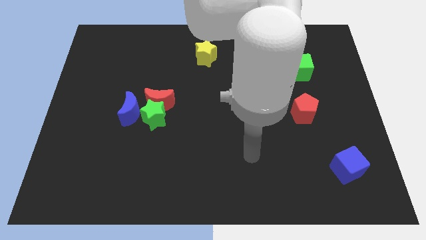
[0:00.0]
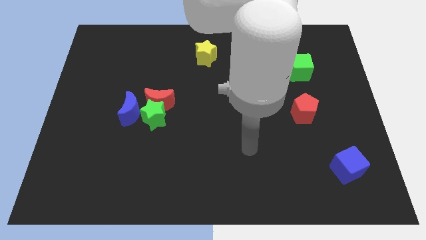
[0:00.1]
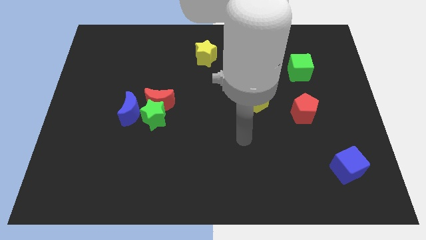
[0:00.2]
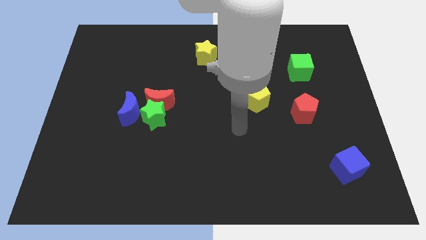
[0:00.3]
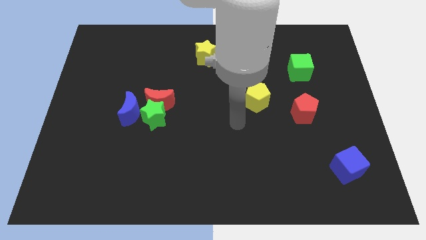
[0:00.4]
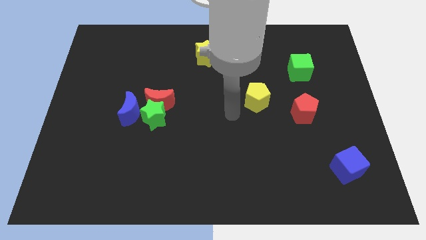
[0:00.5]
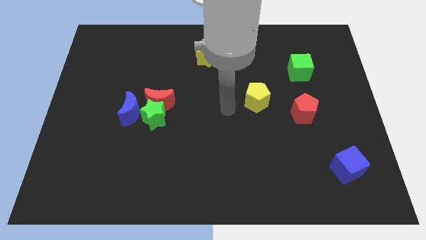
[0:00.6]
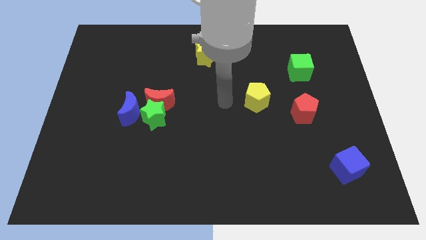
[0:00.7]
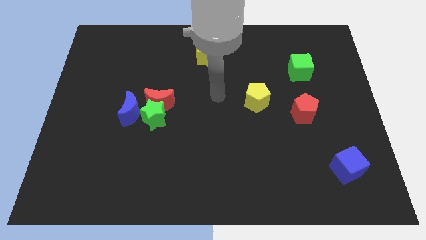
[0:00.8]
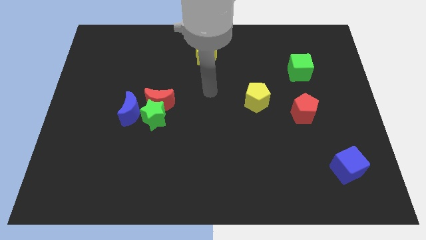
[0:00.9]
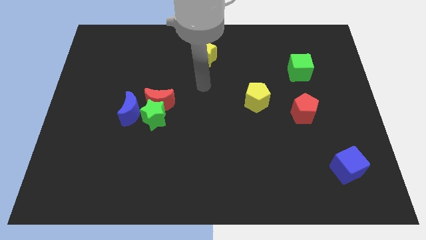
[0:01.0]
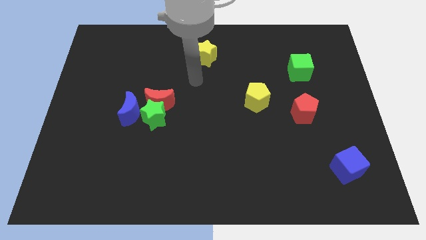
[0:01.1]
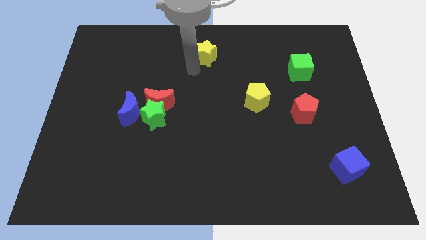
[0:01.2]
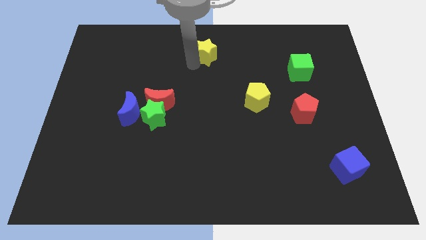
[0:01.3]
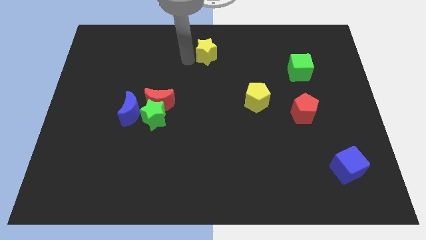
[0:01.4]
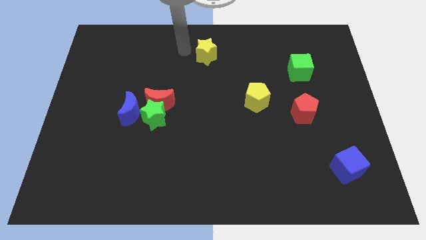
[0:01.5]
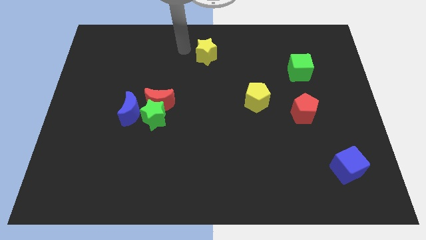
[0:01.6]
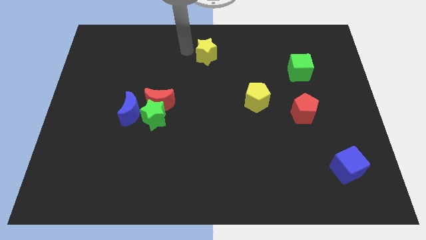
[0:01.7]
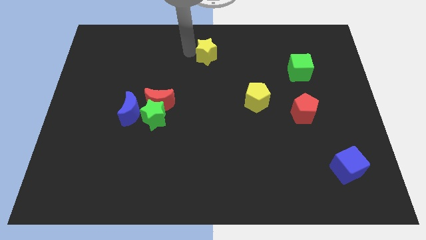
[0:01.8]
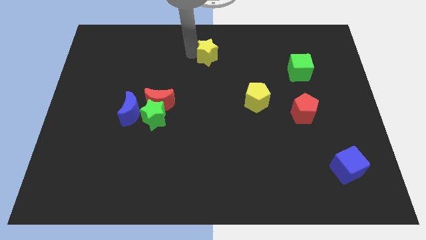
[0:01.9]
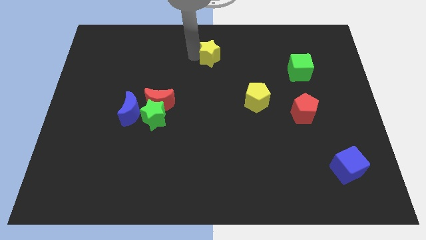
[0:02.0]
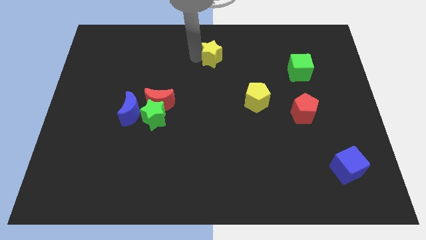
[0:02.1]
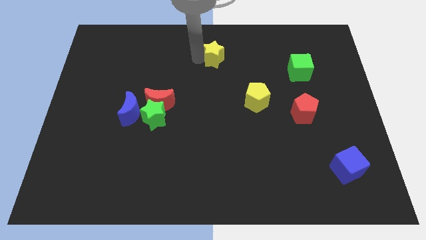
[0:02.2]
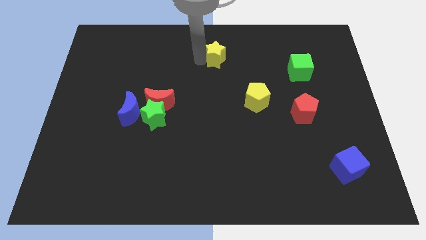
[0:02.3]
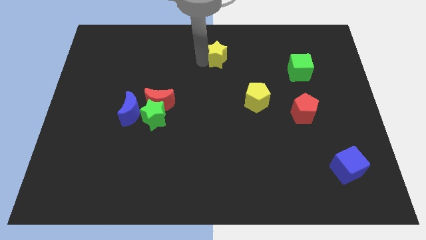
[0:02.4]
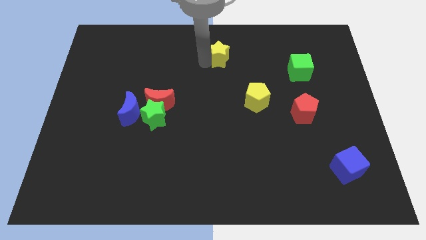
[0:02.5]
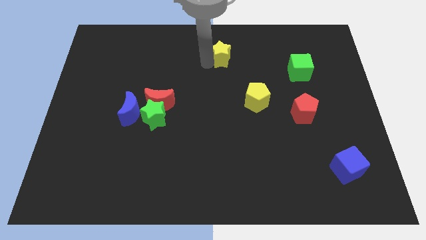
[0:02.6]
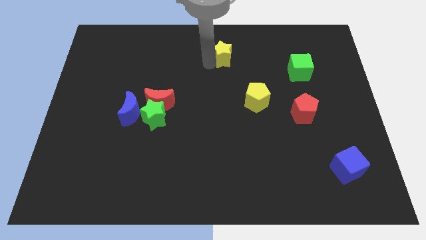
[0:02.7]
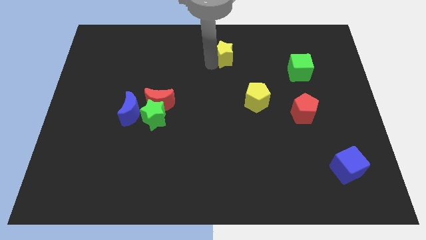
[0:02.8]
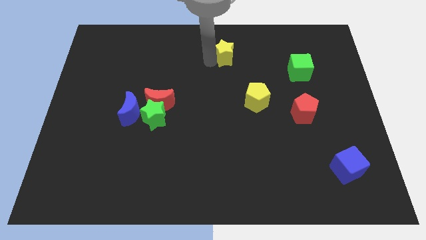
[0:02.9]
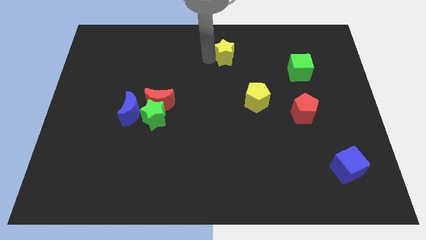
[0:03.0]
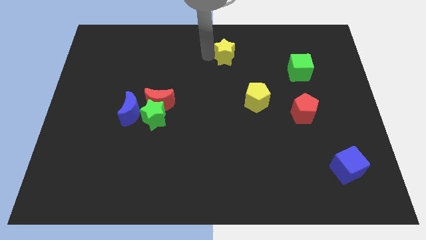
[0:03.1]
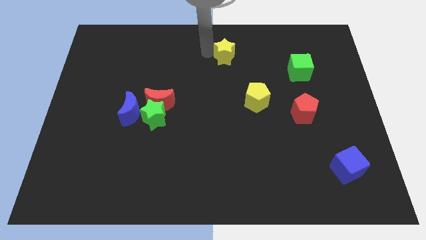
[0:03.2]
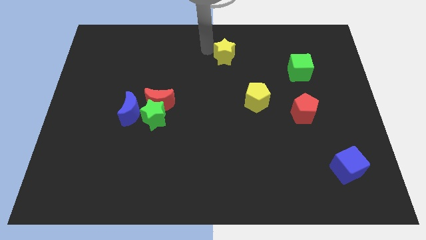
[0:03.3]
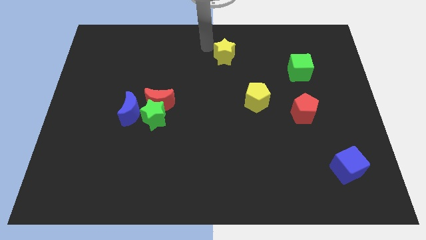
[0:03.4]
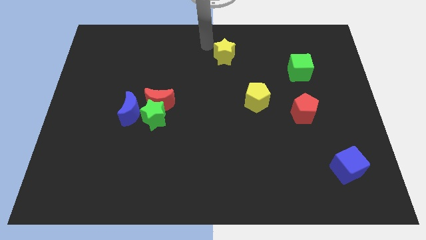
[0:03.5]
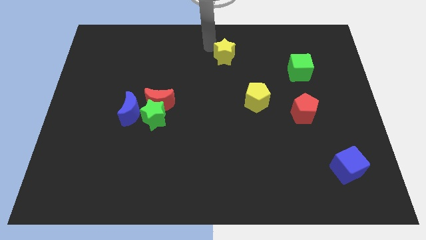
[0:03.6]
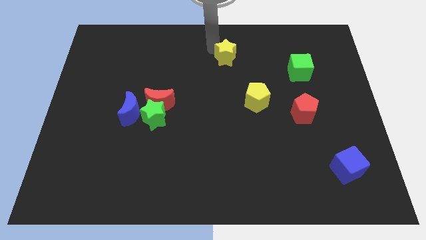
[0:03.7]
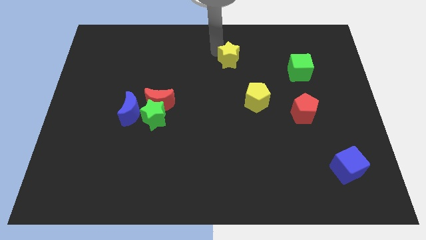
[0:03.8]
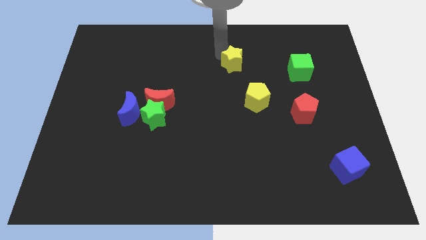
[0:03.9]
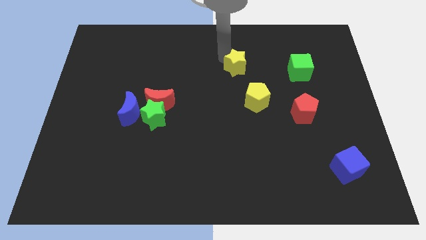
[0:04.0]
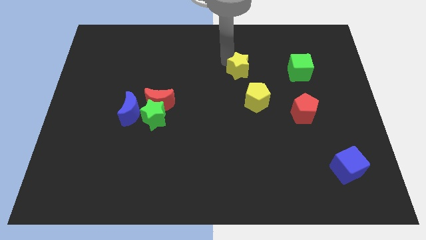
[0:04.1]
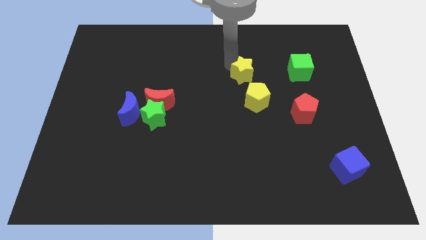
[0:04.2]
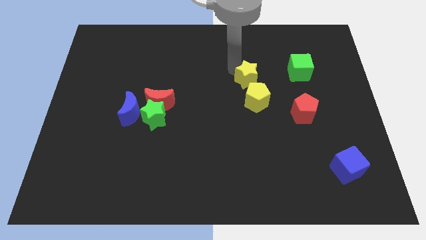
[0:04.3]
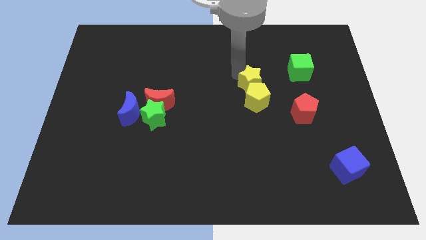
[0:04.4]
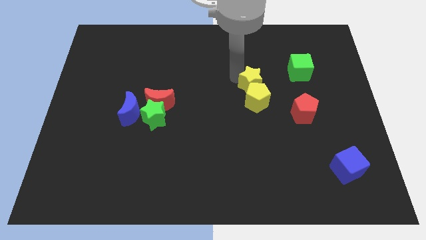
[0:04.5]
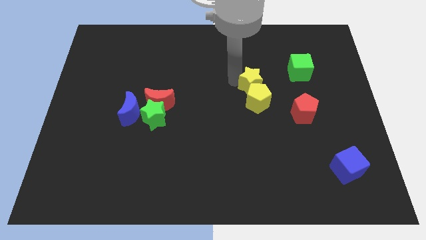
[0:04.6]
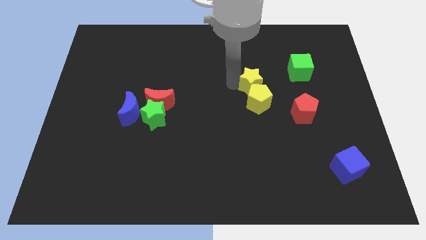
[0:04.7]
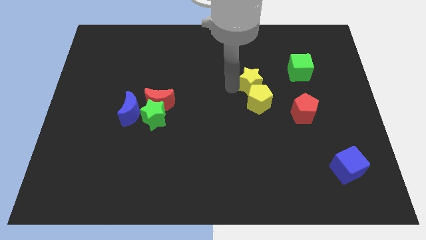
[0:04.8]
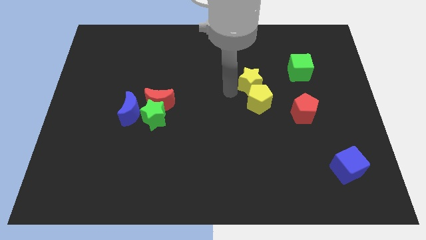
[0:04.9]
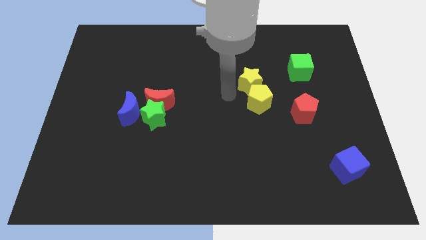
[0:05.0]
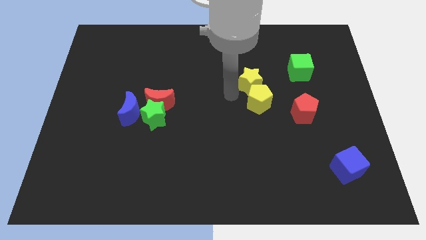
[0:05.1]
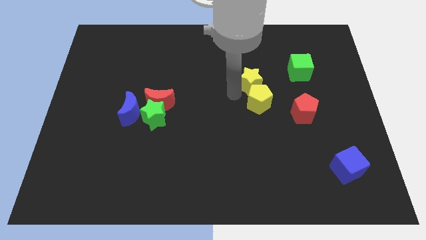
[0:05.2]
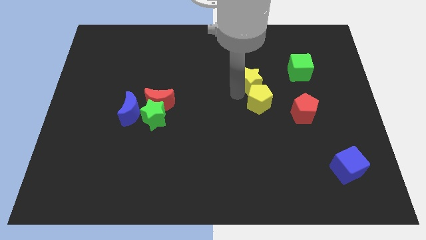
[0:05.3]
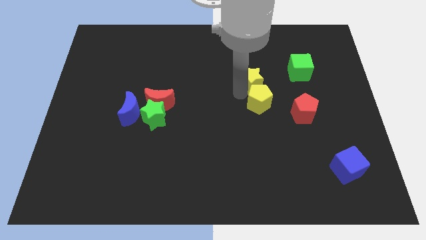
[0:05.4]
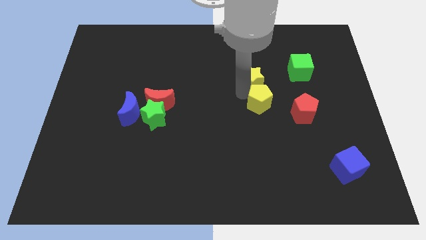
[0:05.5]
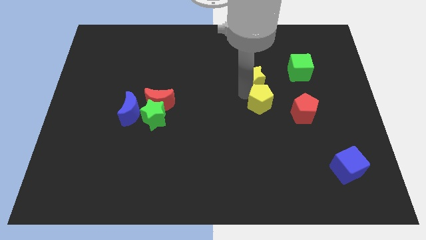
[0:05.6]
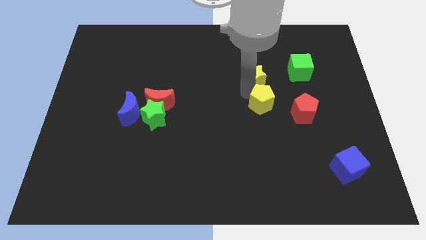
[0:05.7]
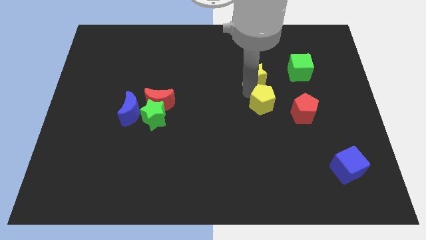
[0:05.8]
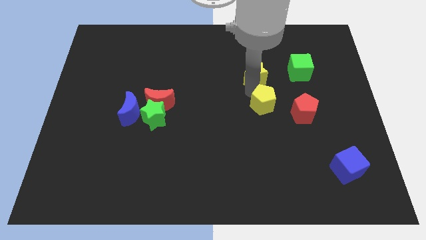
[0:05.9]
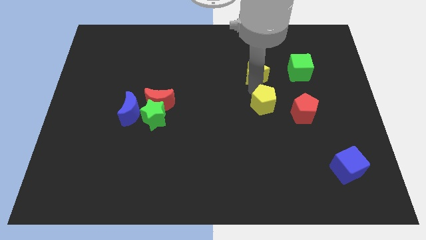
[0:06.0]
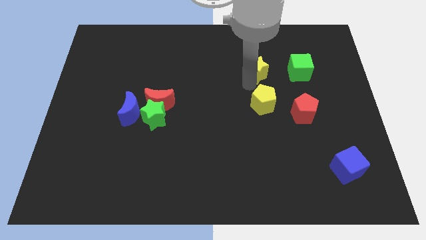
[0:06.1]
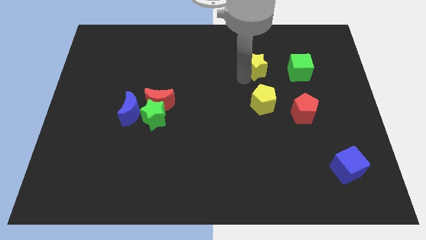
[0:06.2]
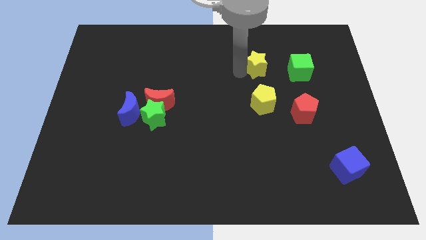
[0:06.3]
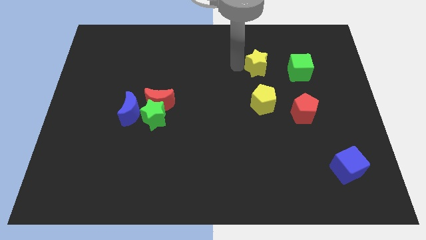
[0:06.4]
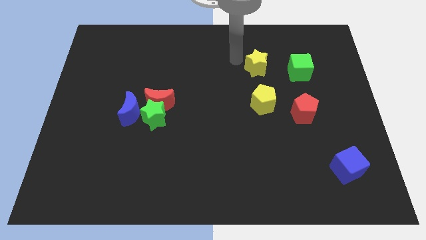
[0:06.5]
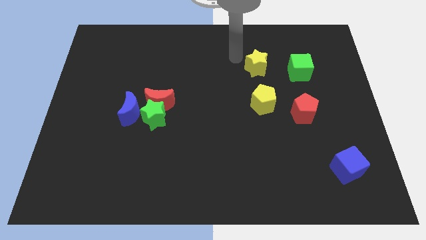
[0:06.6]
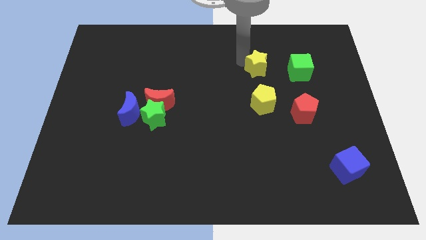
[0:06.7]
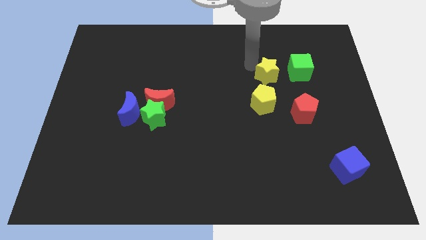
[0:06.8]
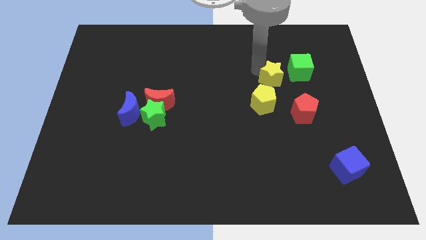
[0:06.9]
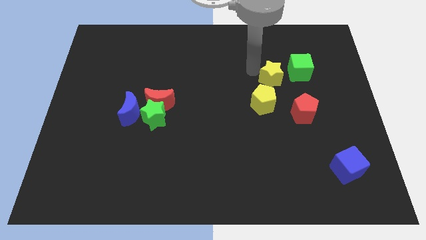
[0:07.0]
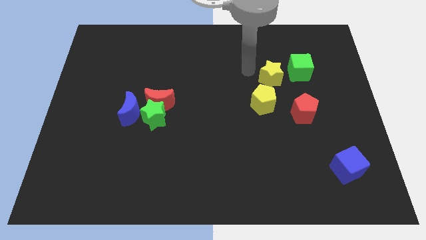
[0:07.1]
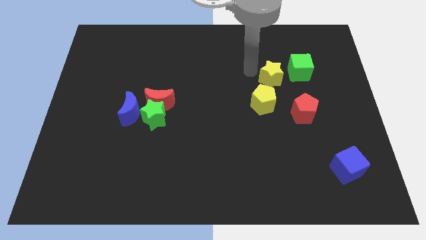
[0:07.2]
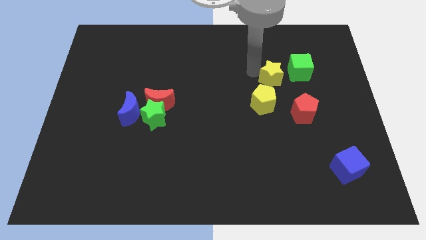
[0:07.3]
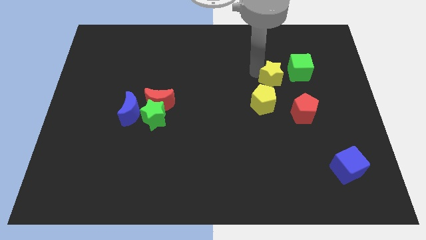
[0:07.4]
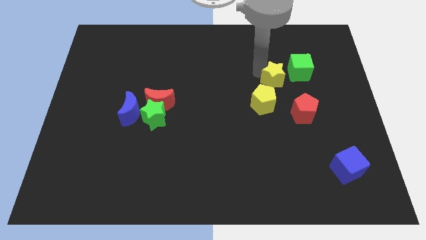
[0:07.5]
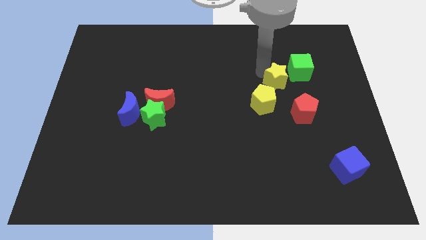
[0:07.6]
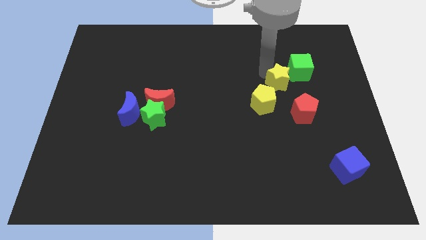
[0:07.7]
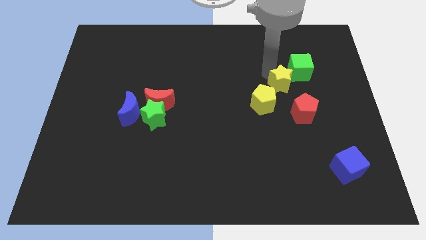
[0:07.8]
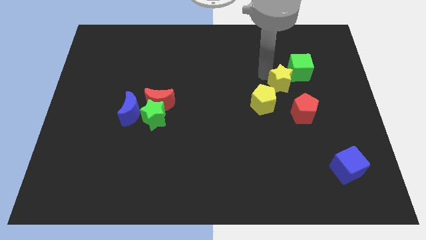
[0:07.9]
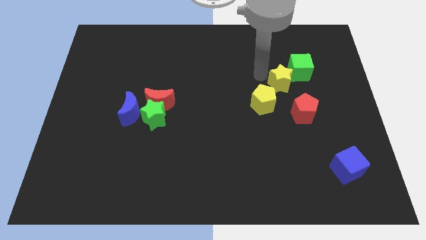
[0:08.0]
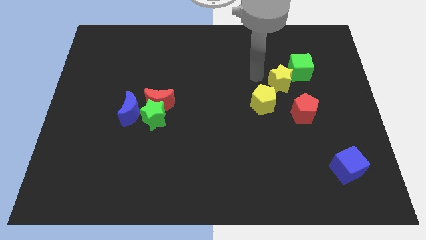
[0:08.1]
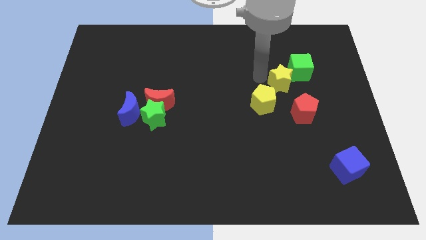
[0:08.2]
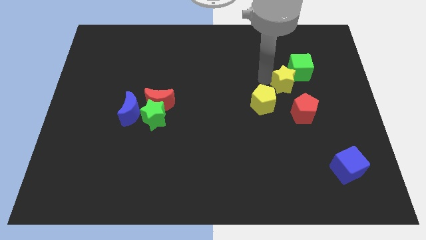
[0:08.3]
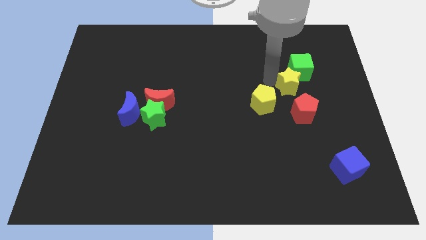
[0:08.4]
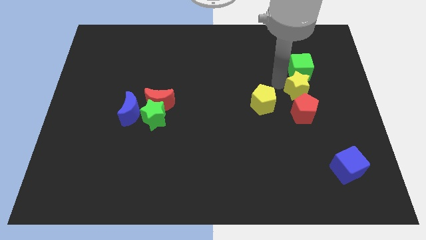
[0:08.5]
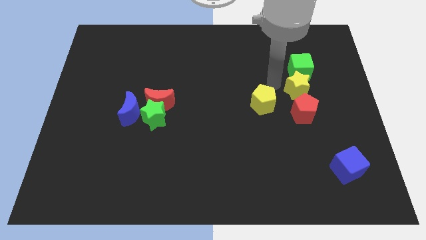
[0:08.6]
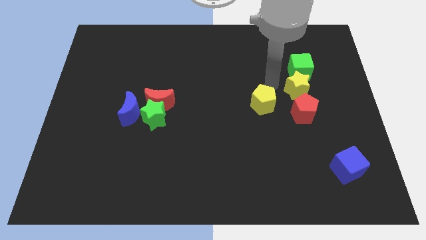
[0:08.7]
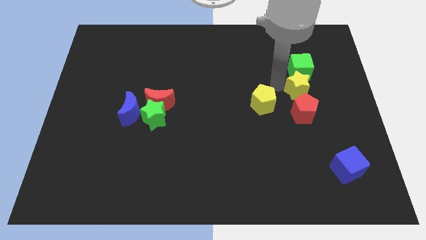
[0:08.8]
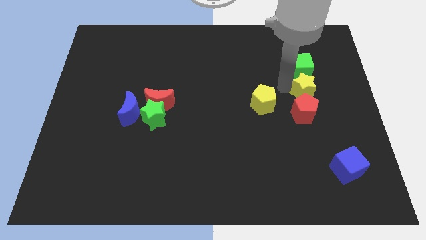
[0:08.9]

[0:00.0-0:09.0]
push the yellow star to the top right side of the red pentagon
